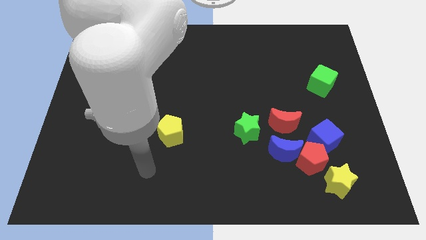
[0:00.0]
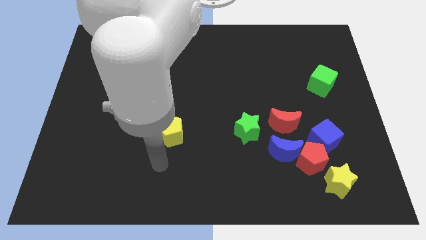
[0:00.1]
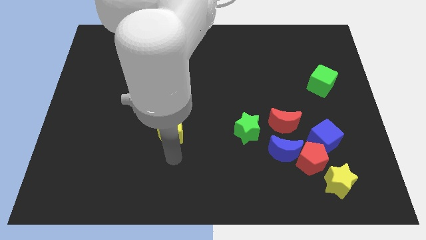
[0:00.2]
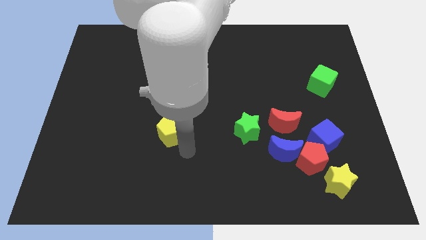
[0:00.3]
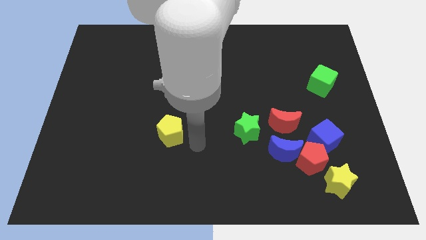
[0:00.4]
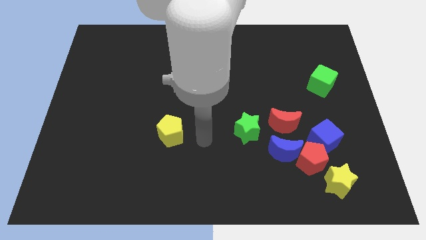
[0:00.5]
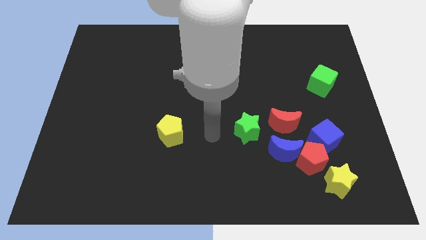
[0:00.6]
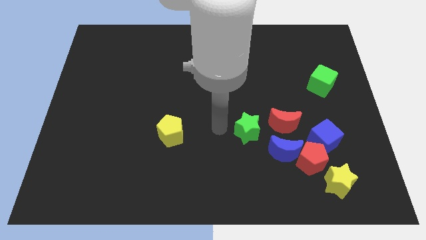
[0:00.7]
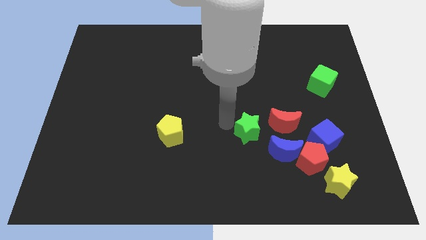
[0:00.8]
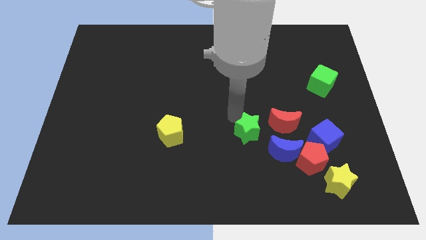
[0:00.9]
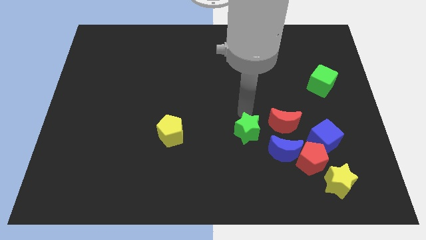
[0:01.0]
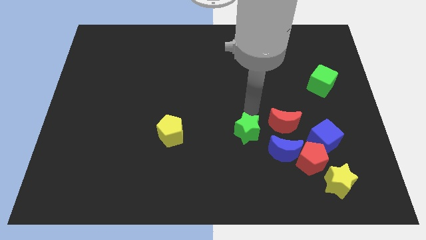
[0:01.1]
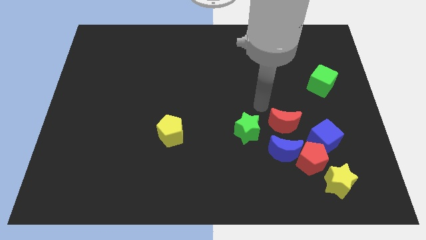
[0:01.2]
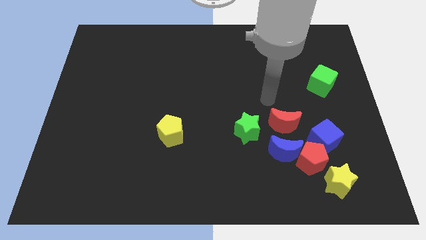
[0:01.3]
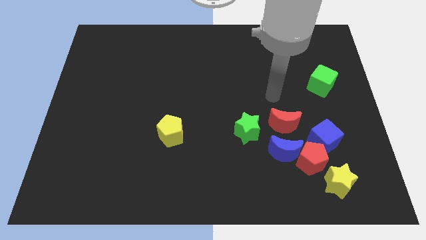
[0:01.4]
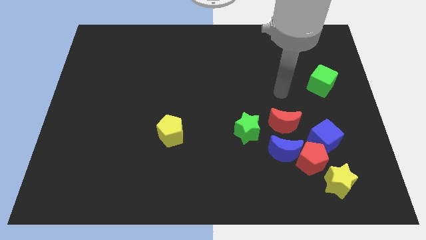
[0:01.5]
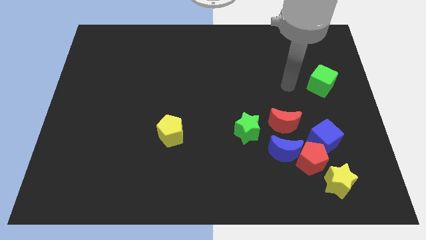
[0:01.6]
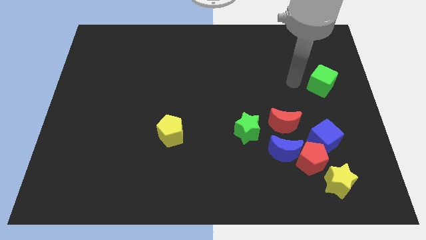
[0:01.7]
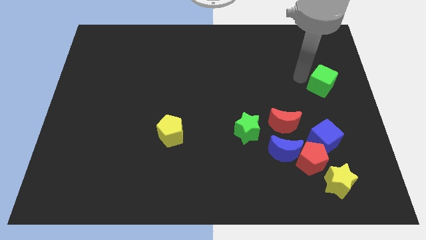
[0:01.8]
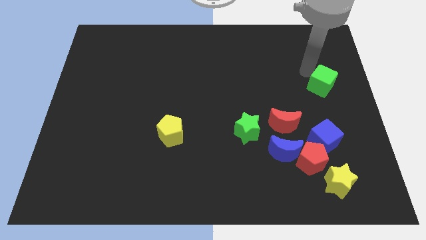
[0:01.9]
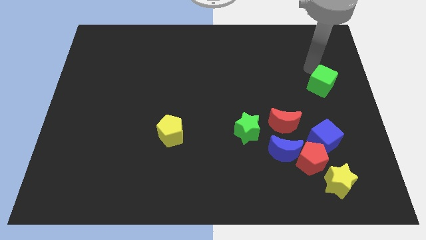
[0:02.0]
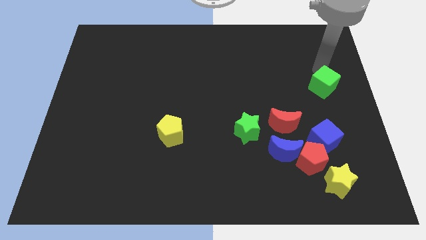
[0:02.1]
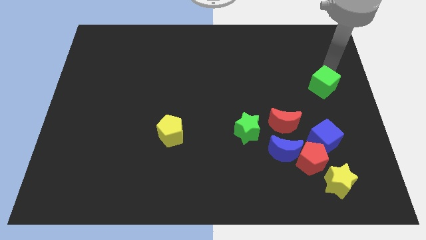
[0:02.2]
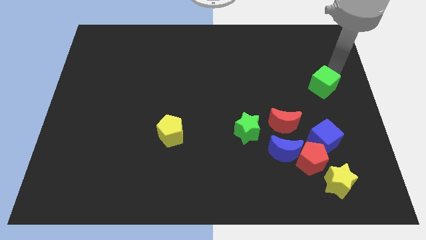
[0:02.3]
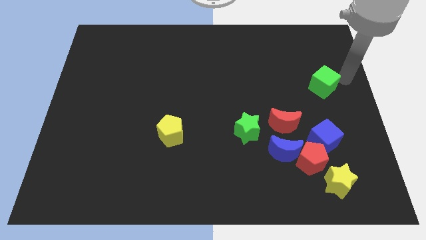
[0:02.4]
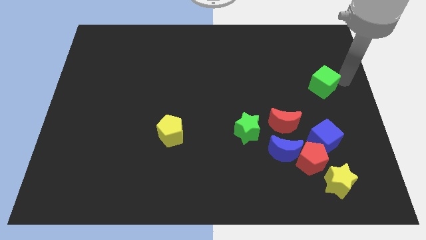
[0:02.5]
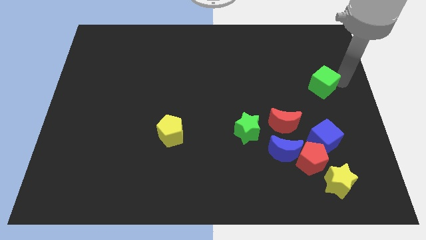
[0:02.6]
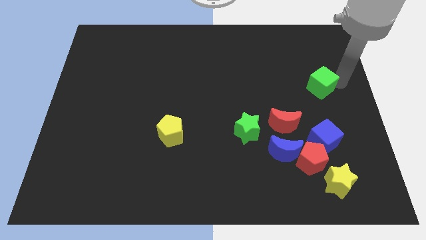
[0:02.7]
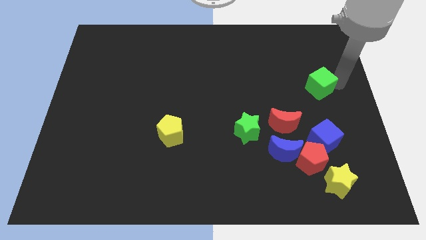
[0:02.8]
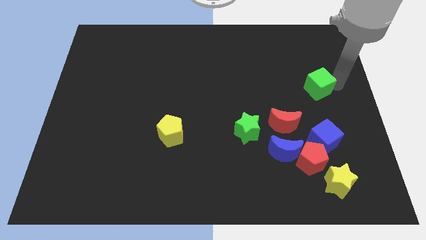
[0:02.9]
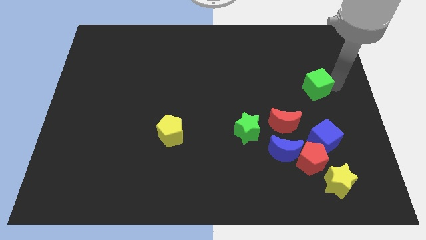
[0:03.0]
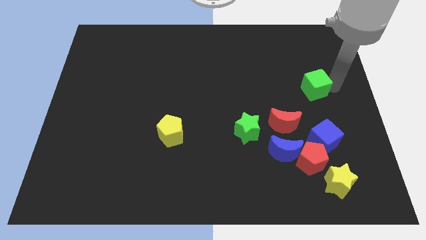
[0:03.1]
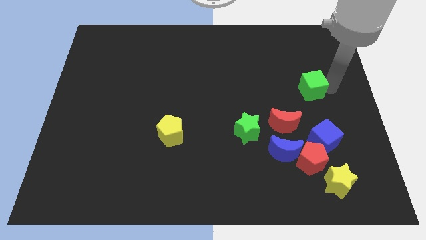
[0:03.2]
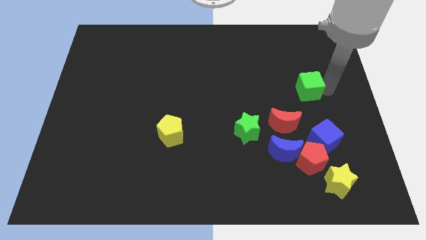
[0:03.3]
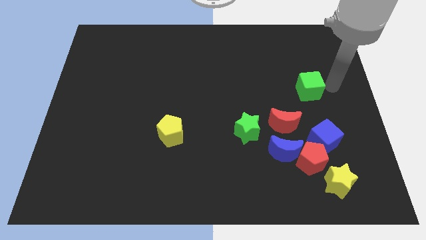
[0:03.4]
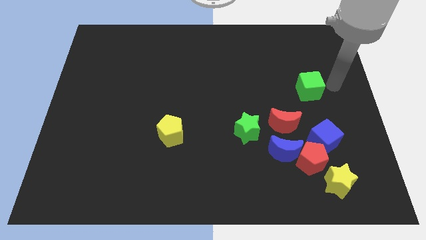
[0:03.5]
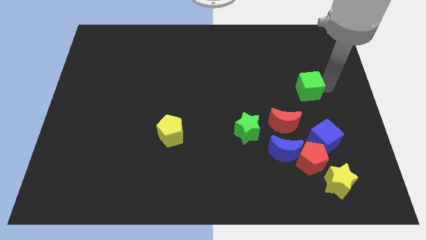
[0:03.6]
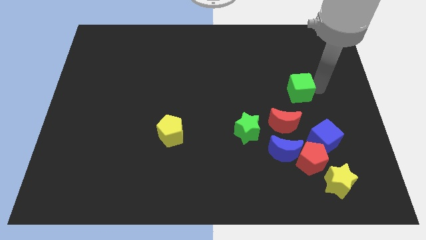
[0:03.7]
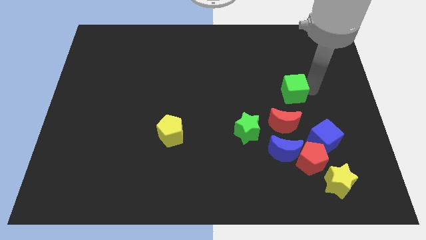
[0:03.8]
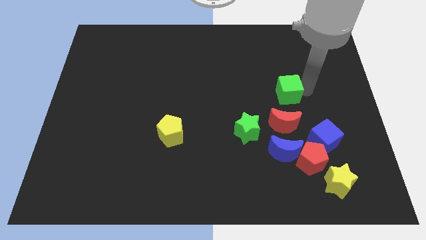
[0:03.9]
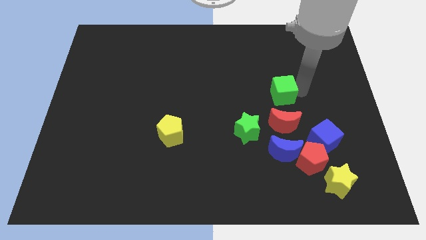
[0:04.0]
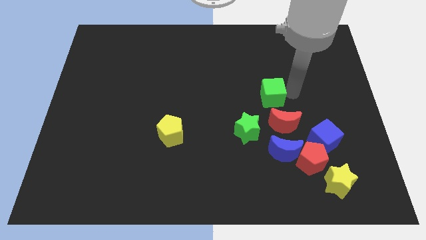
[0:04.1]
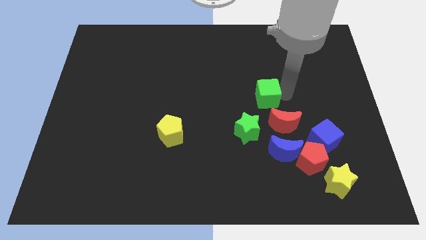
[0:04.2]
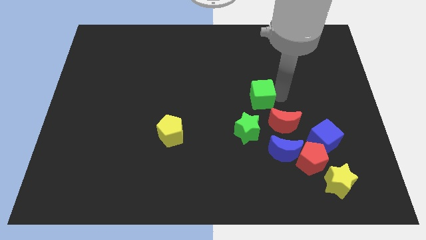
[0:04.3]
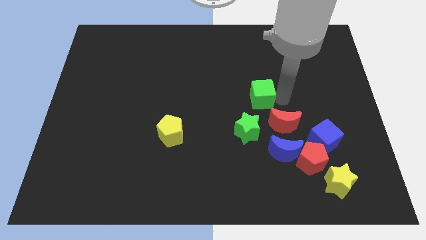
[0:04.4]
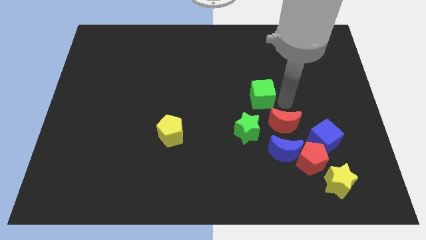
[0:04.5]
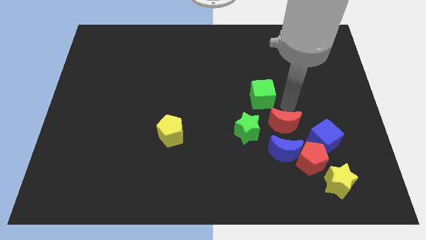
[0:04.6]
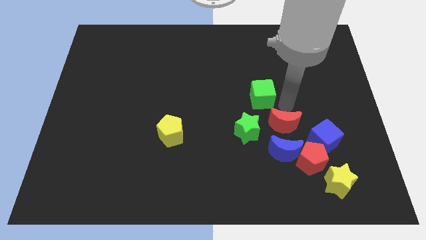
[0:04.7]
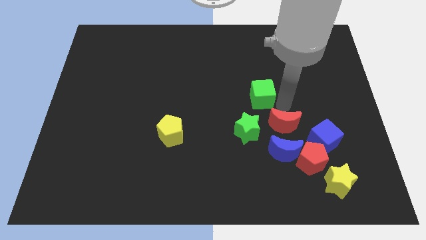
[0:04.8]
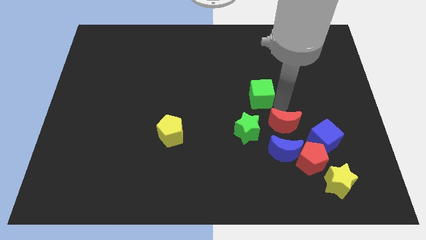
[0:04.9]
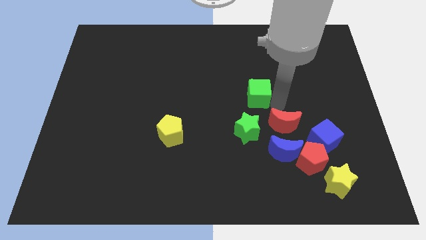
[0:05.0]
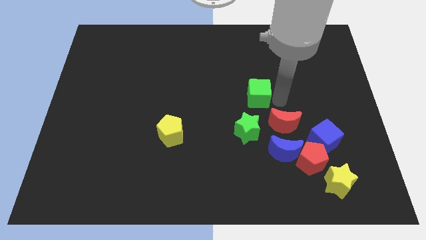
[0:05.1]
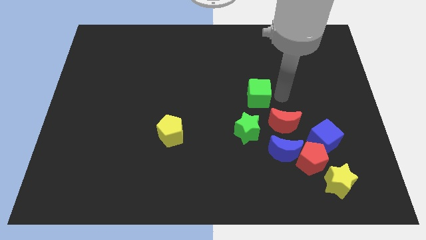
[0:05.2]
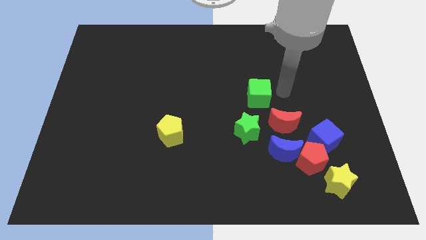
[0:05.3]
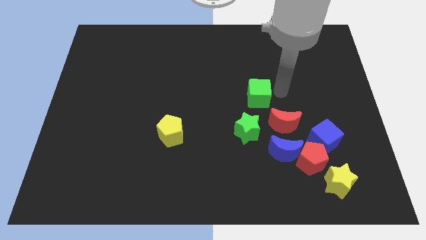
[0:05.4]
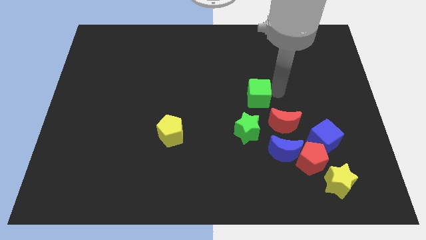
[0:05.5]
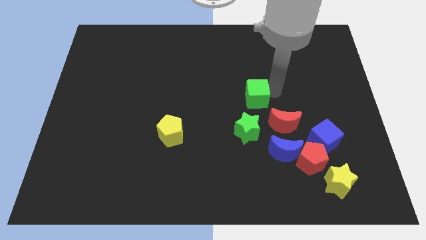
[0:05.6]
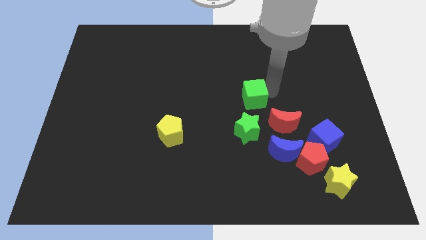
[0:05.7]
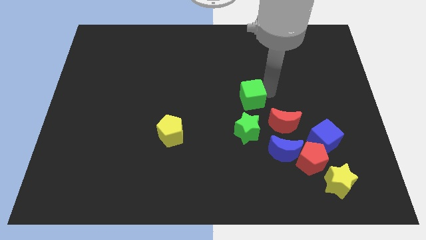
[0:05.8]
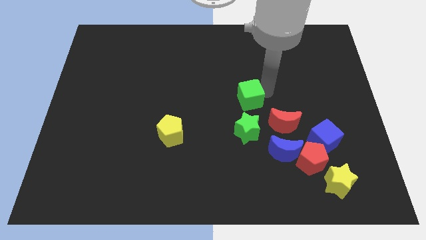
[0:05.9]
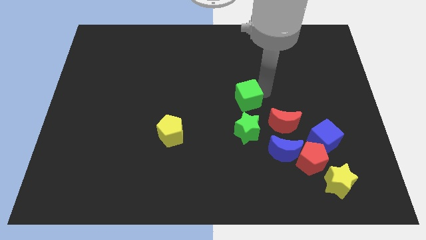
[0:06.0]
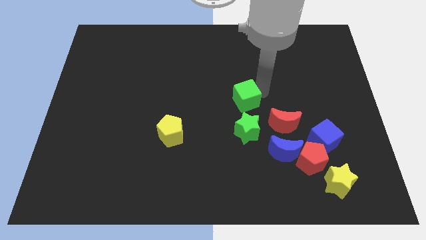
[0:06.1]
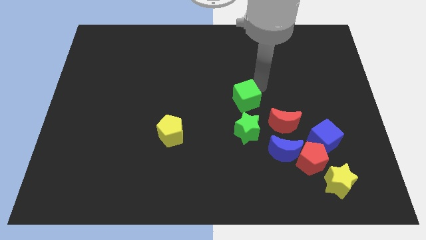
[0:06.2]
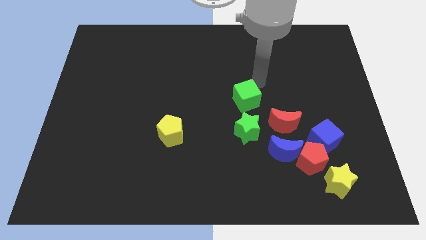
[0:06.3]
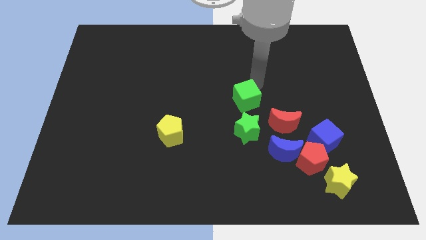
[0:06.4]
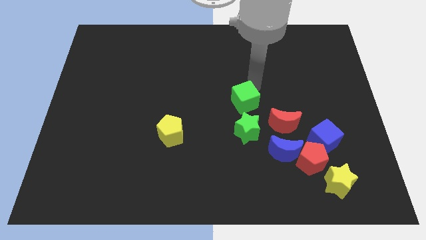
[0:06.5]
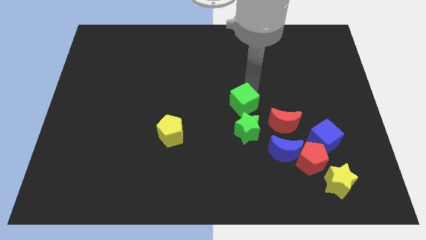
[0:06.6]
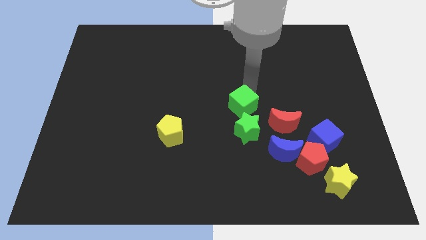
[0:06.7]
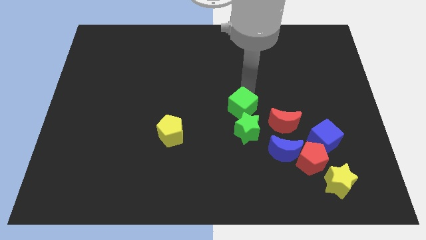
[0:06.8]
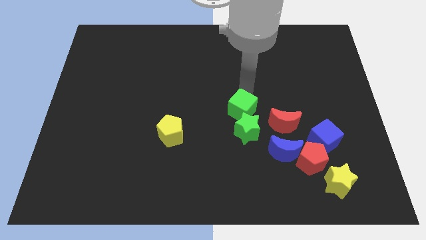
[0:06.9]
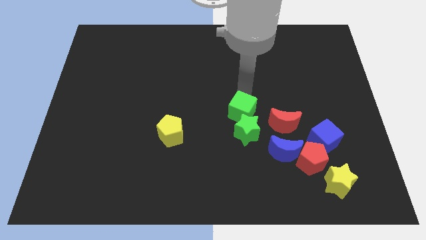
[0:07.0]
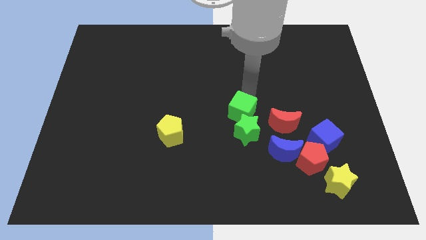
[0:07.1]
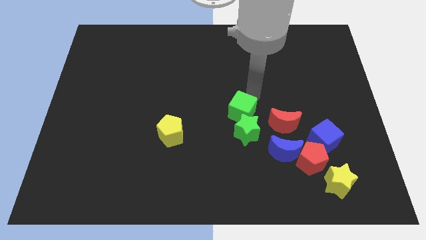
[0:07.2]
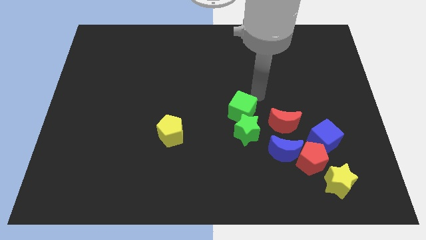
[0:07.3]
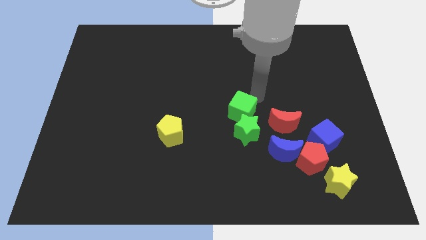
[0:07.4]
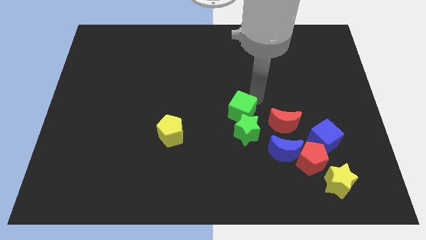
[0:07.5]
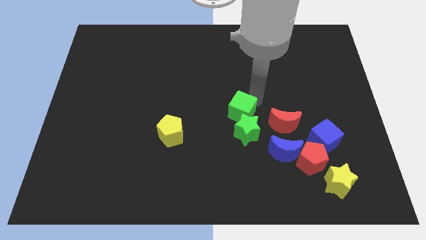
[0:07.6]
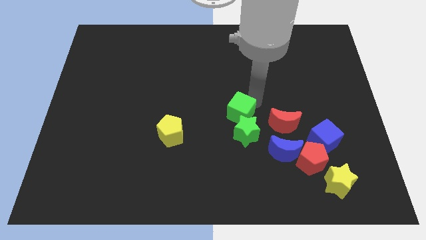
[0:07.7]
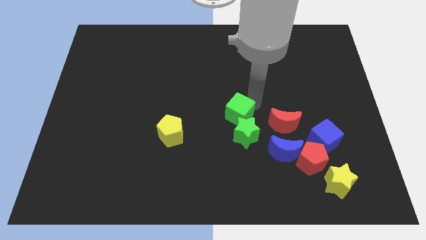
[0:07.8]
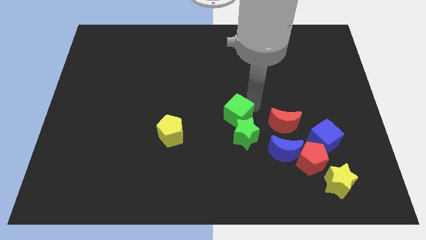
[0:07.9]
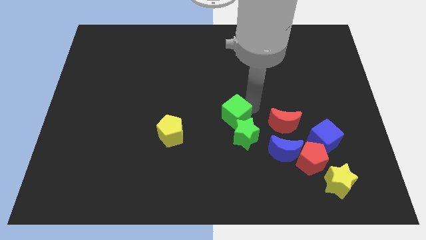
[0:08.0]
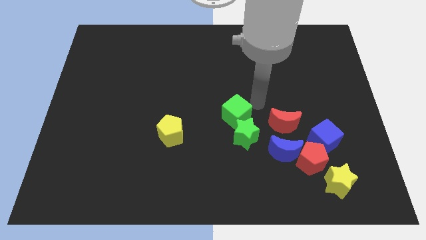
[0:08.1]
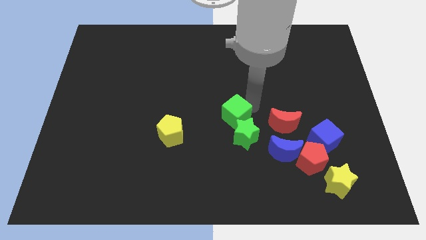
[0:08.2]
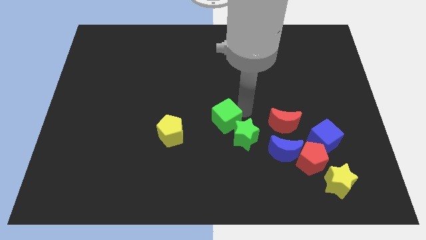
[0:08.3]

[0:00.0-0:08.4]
move the green cube left of the green star
